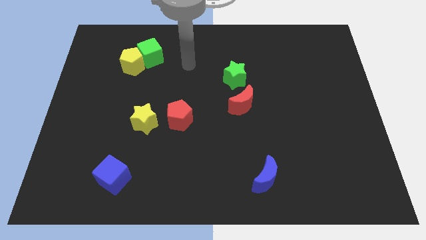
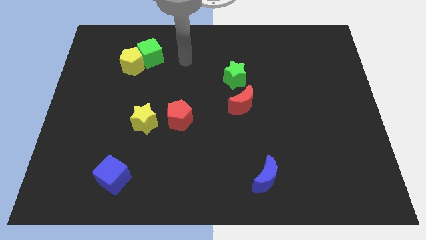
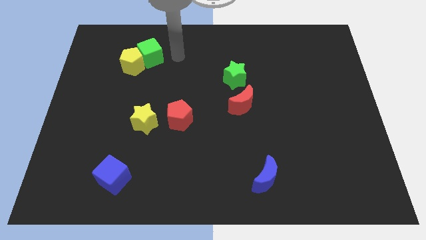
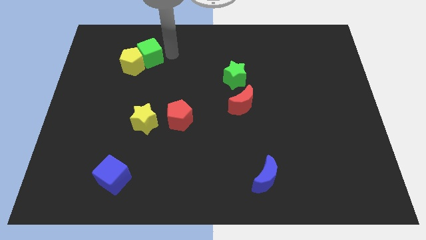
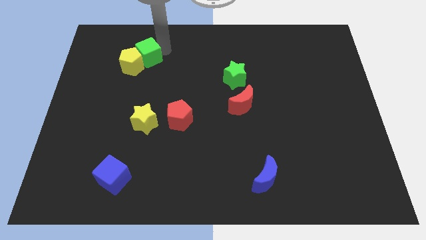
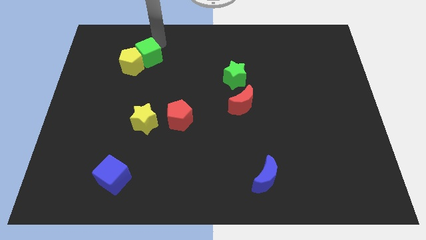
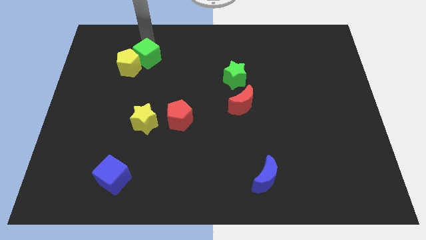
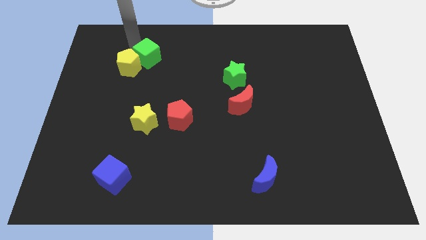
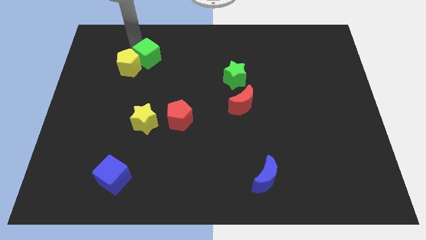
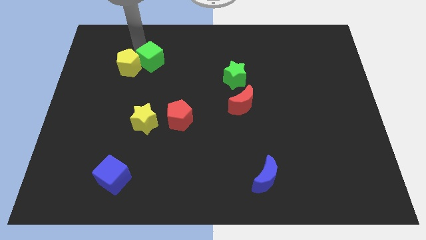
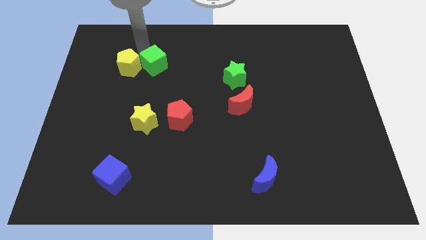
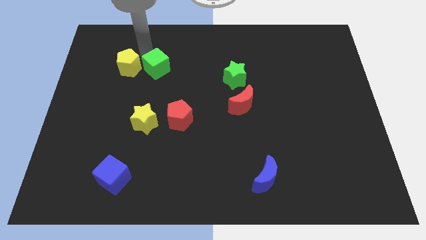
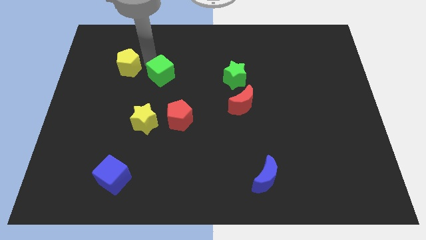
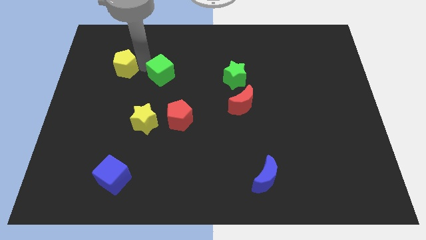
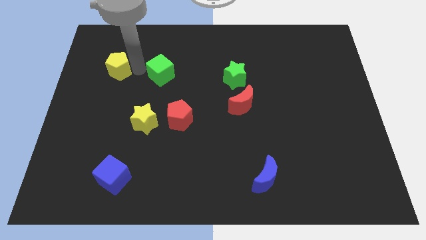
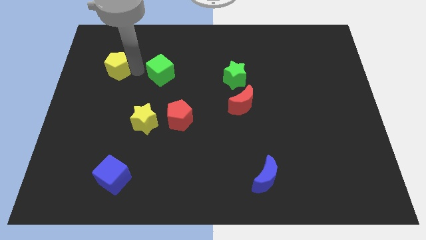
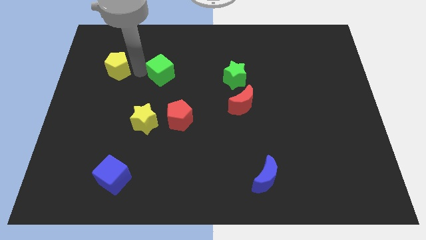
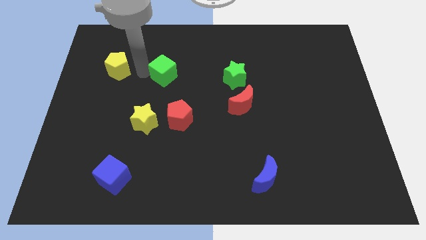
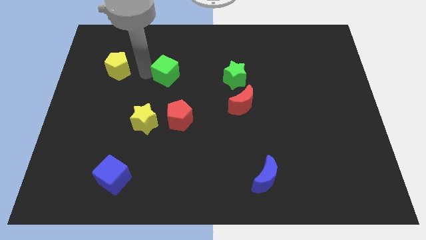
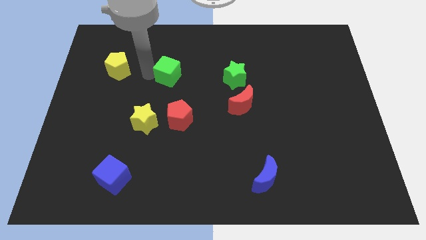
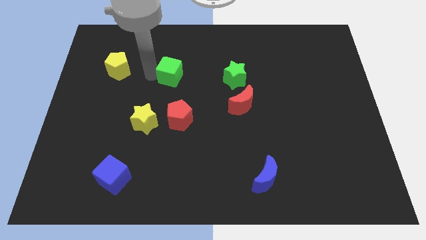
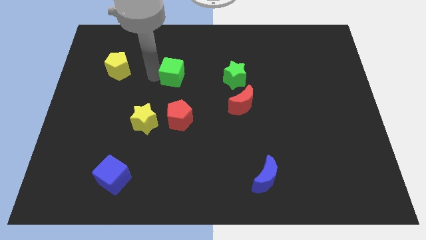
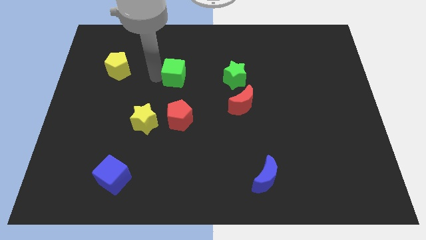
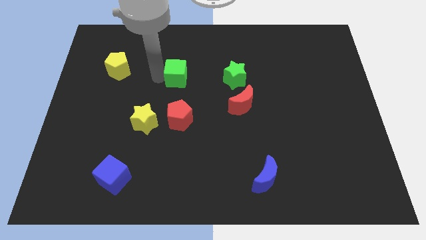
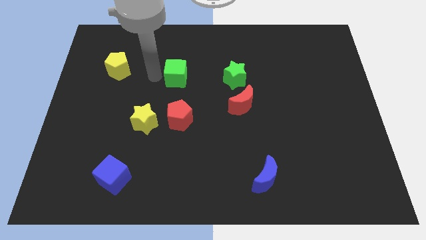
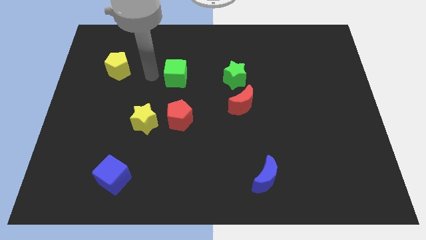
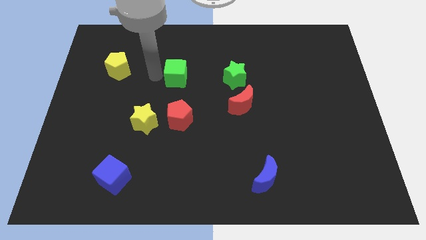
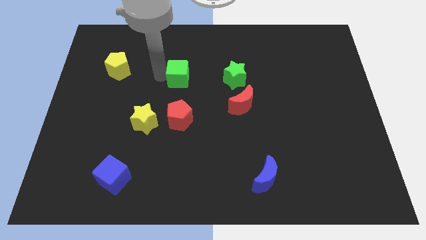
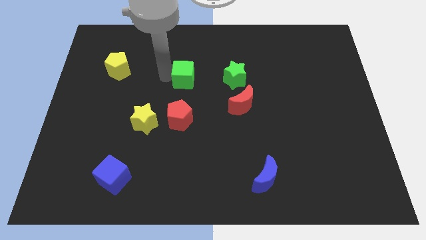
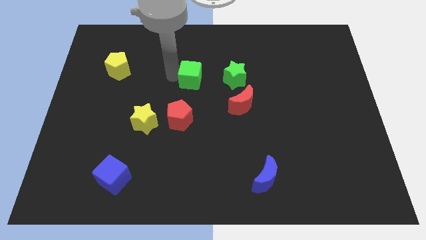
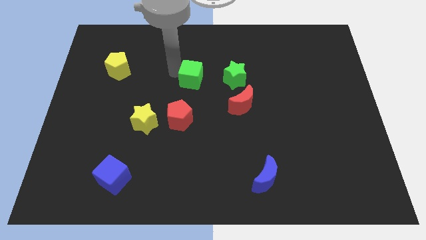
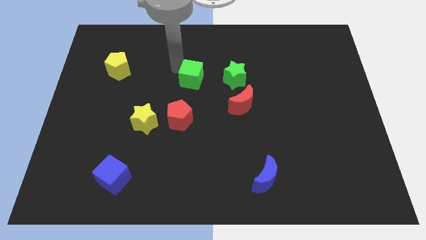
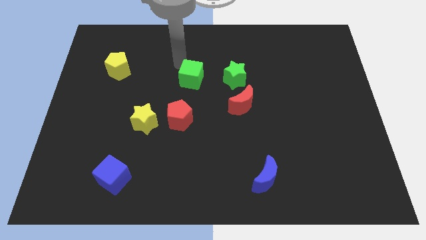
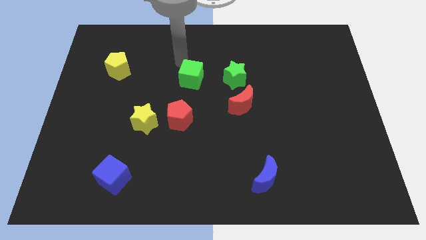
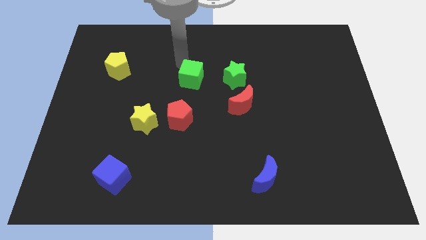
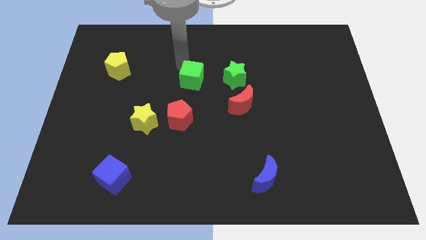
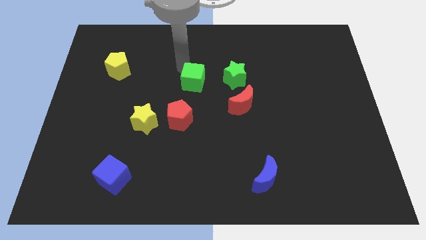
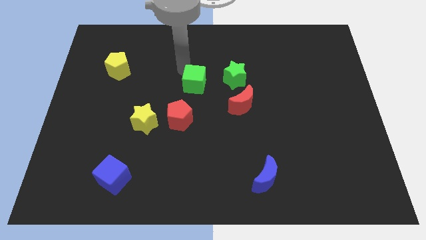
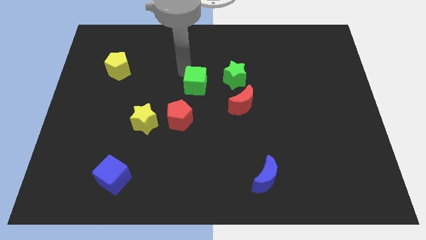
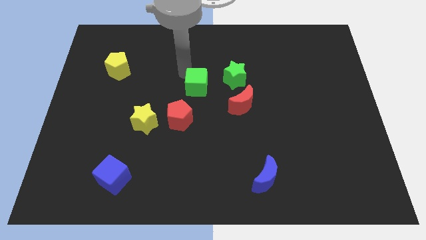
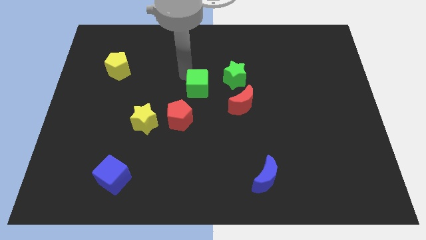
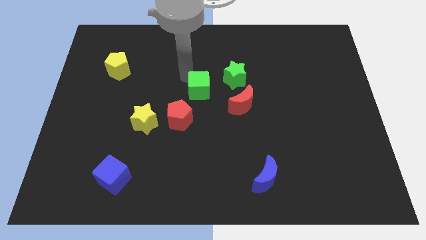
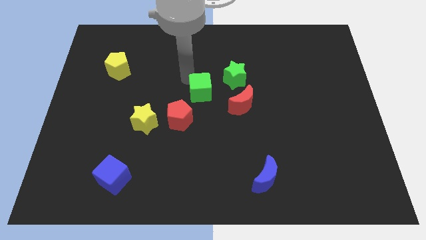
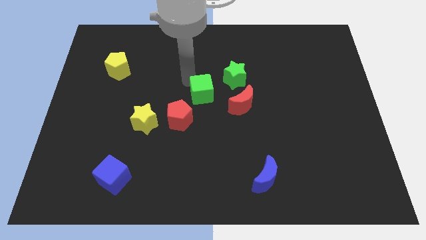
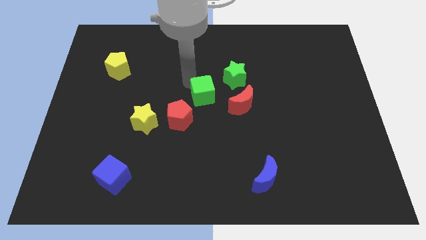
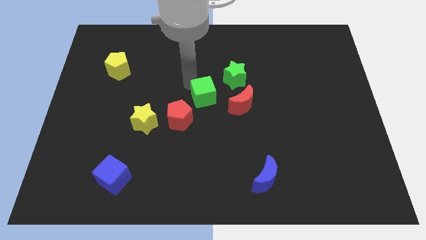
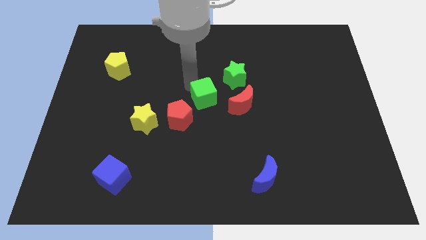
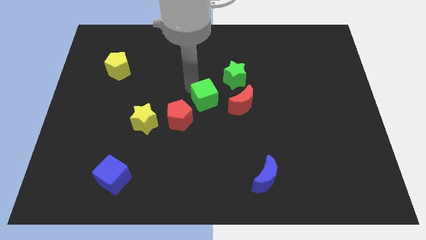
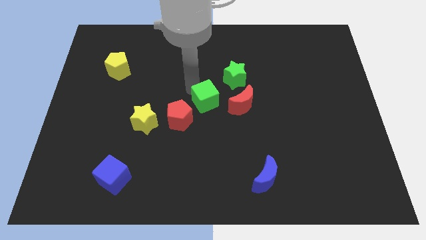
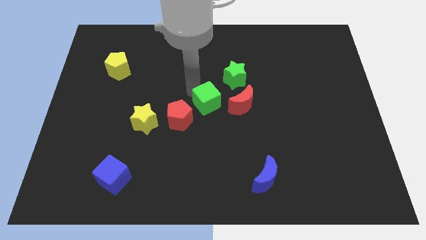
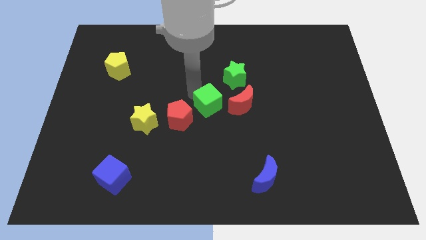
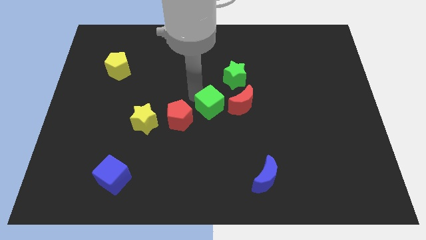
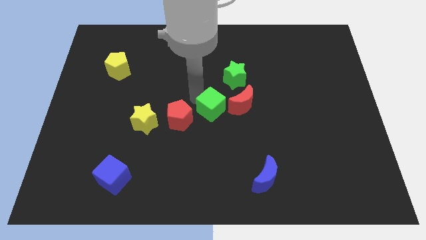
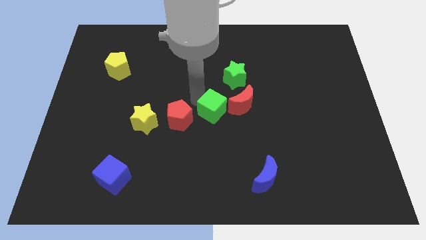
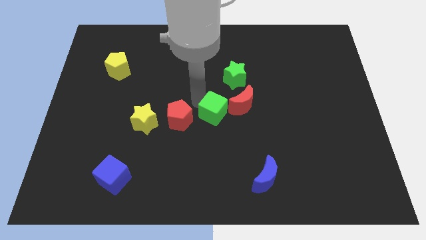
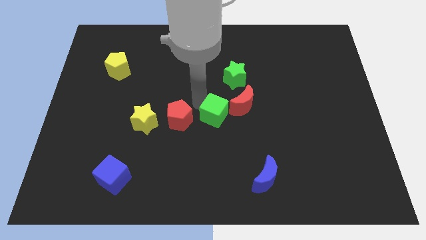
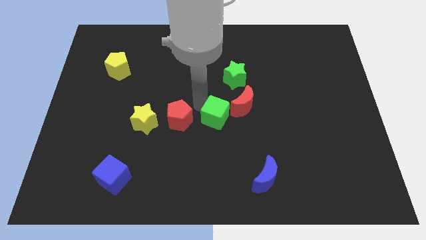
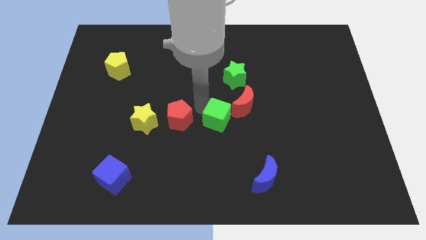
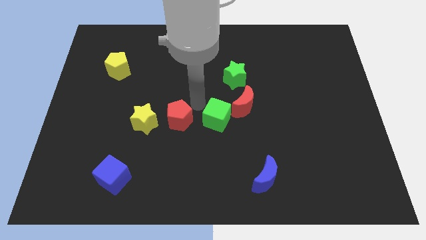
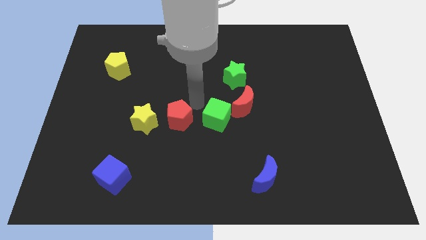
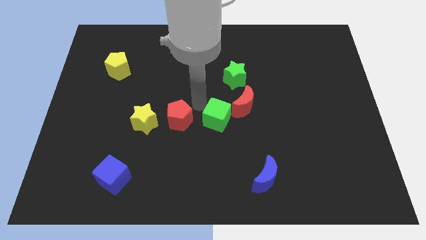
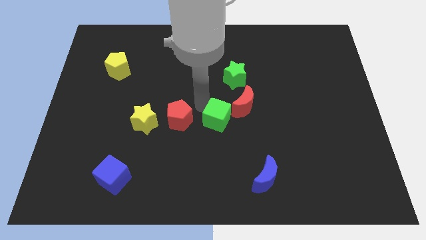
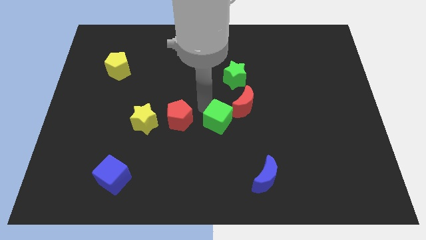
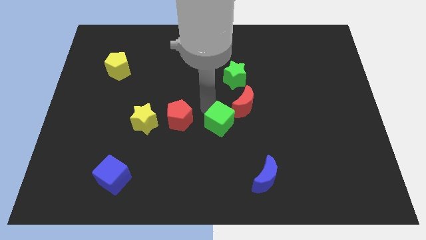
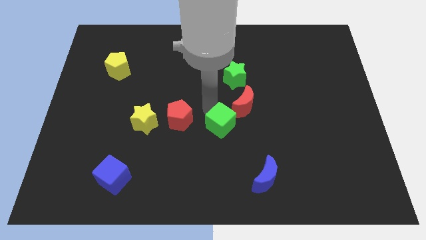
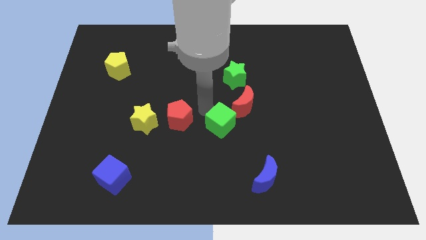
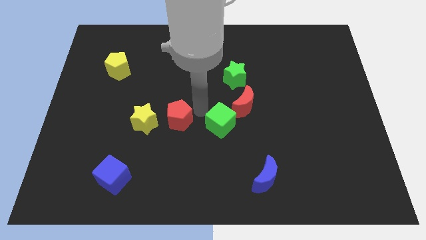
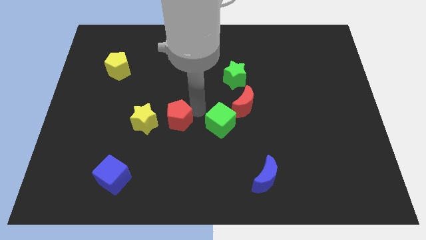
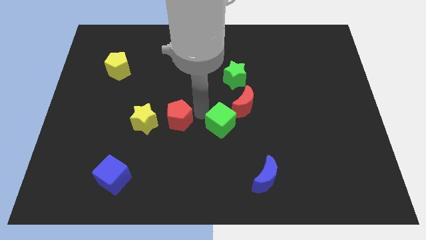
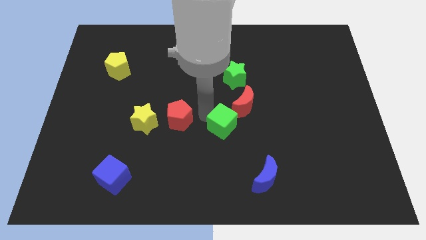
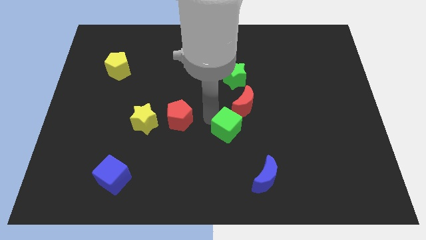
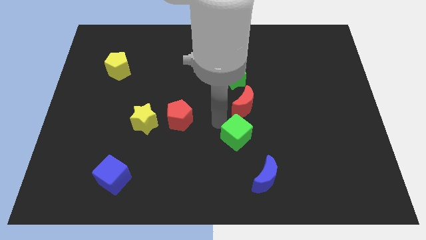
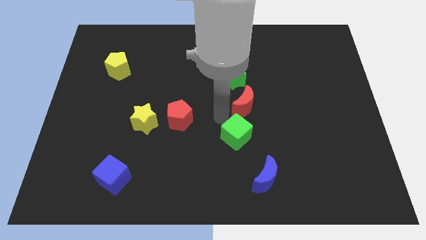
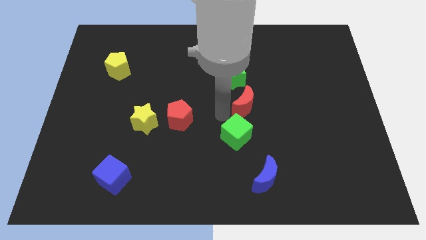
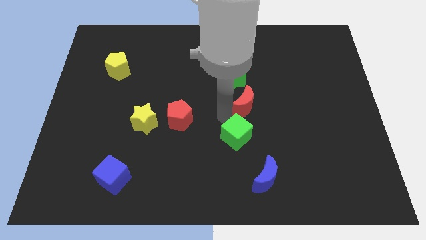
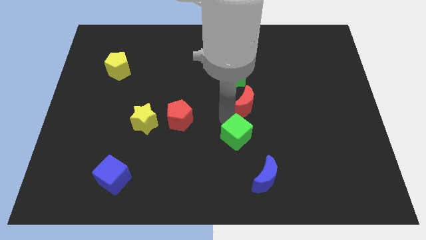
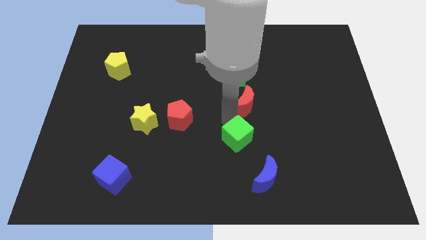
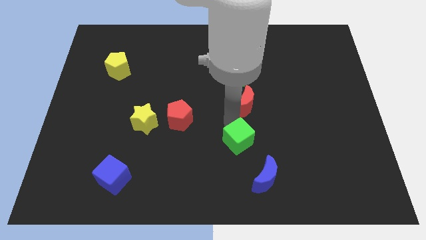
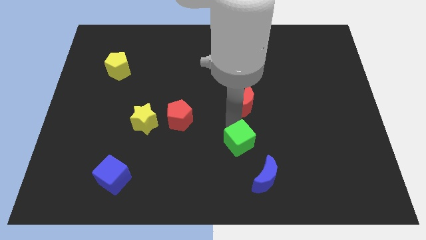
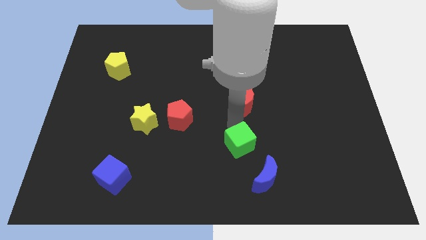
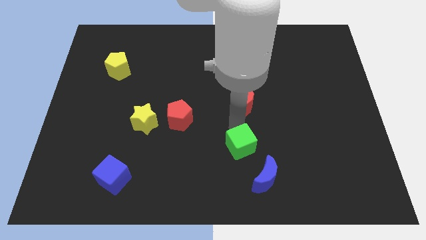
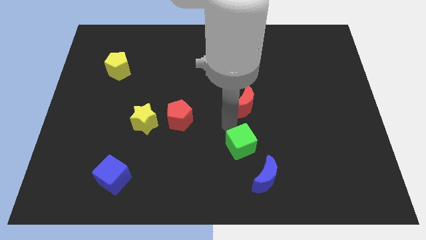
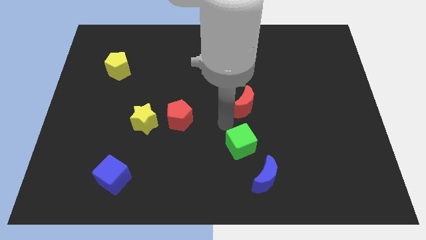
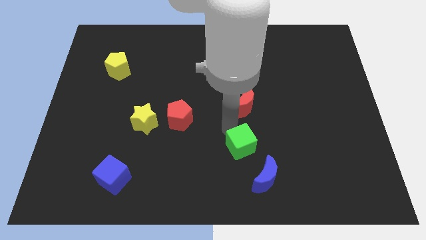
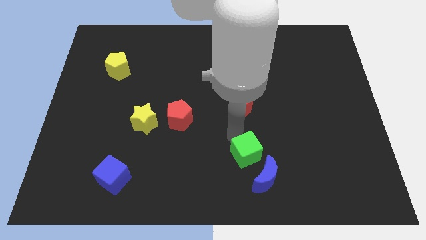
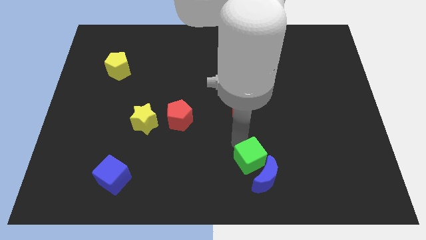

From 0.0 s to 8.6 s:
move the green cube towards the blue moon
